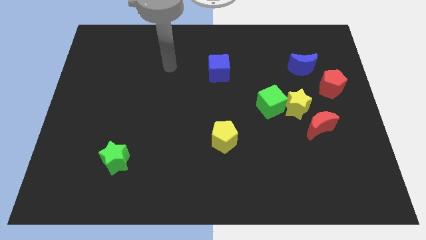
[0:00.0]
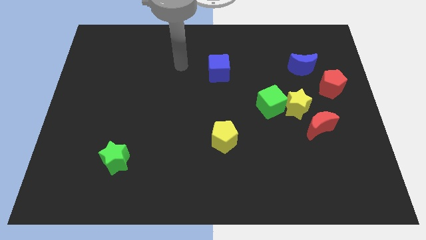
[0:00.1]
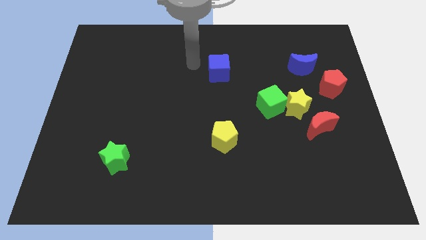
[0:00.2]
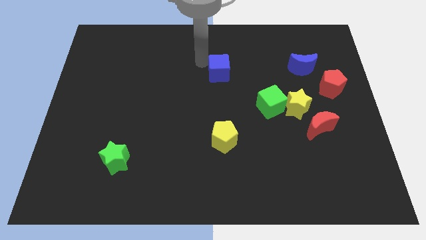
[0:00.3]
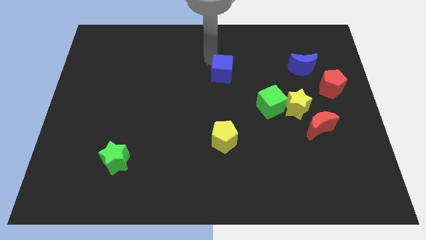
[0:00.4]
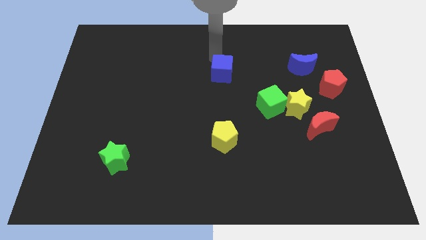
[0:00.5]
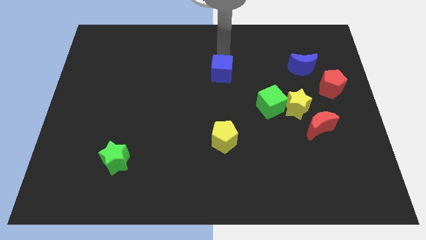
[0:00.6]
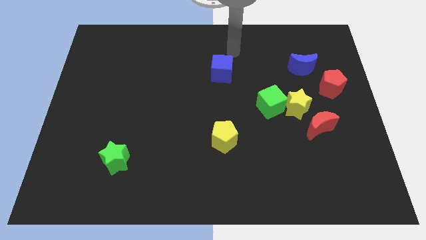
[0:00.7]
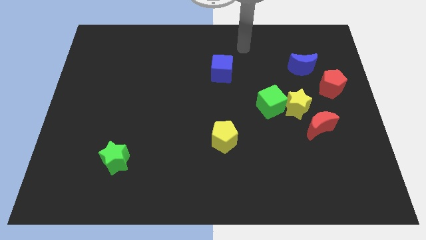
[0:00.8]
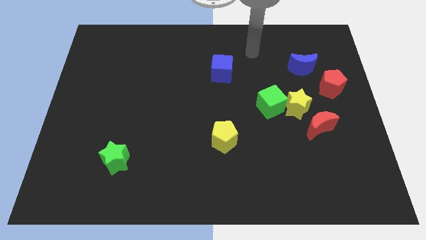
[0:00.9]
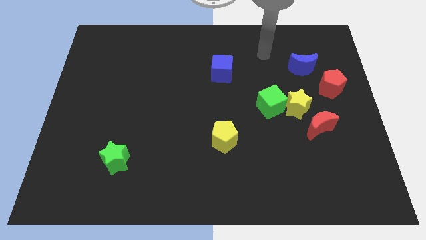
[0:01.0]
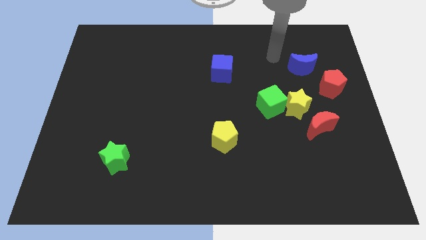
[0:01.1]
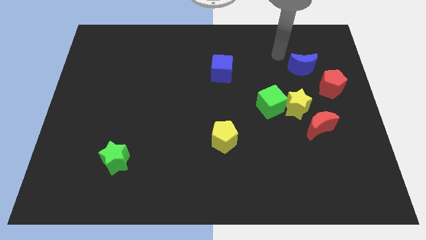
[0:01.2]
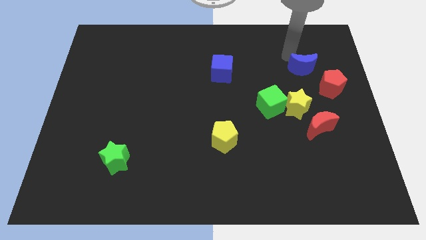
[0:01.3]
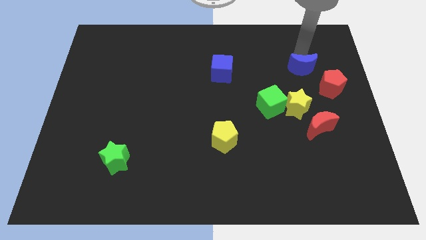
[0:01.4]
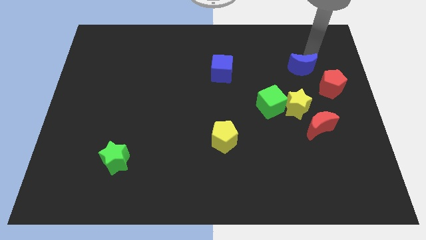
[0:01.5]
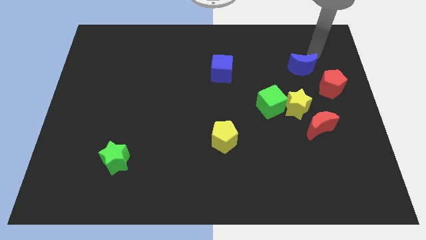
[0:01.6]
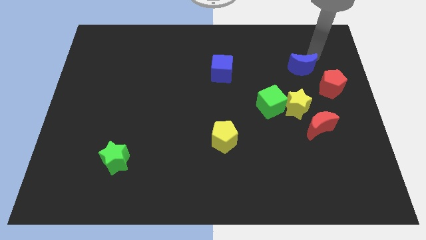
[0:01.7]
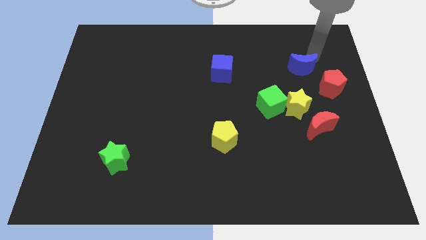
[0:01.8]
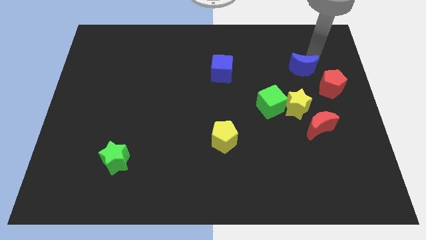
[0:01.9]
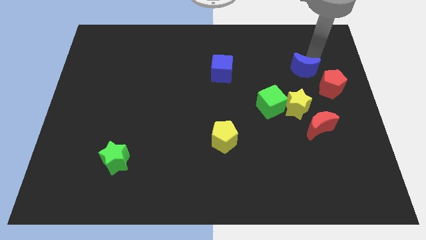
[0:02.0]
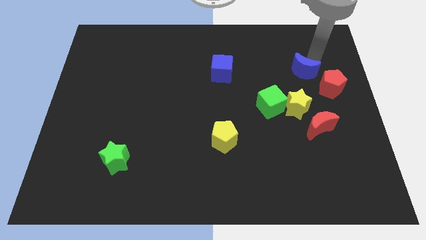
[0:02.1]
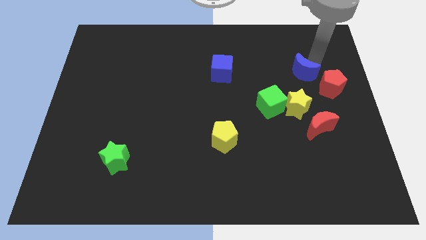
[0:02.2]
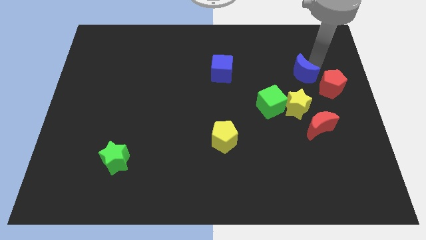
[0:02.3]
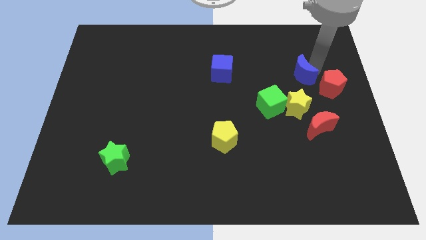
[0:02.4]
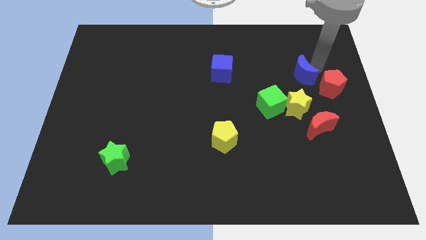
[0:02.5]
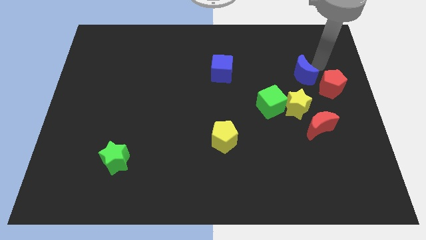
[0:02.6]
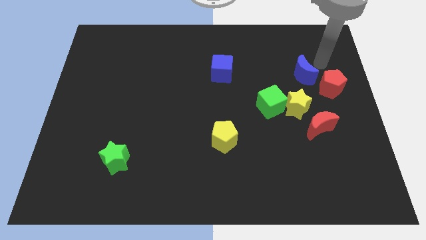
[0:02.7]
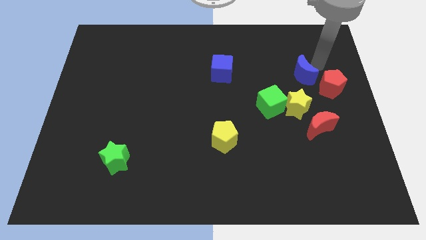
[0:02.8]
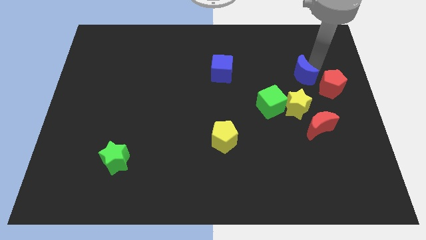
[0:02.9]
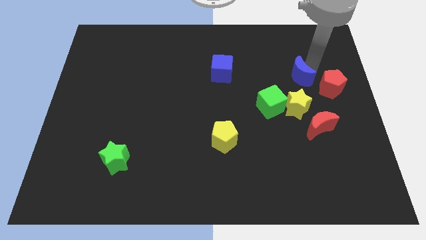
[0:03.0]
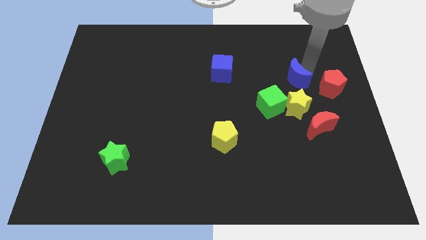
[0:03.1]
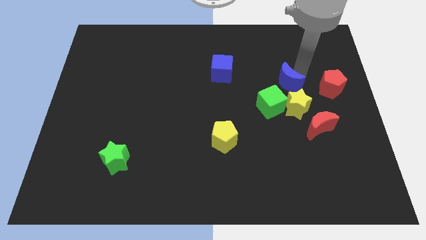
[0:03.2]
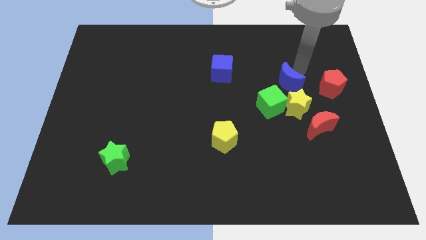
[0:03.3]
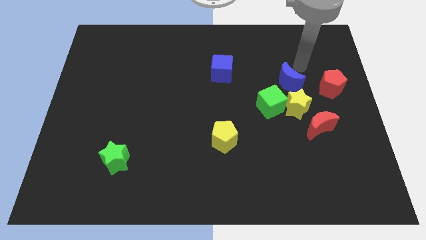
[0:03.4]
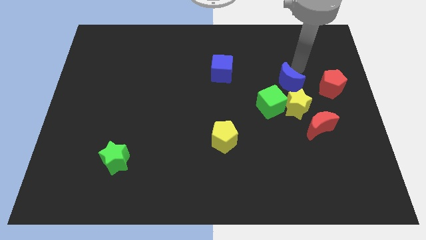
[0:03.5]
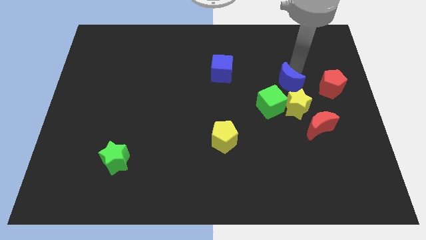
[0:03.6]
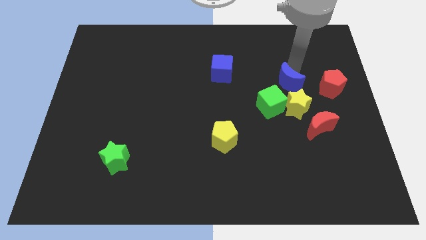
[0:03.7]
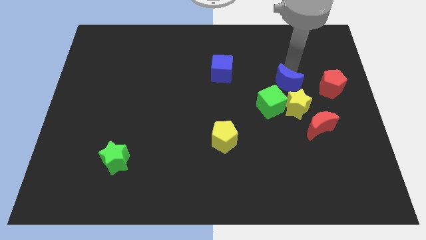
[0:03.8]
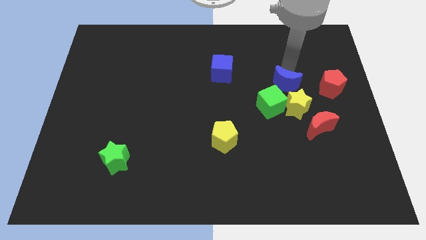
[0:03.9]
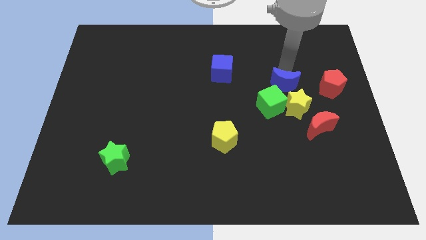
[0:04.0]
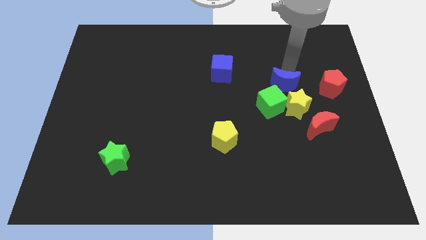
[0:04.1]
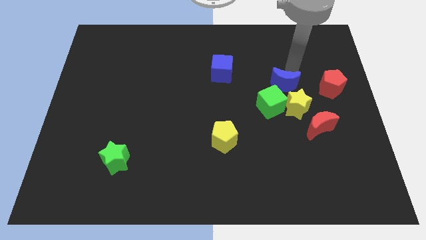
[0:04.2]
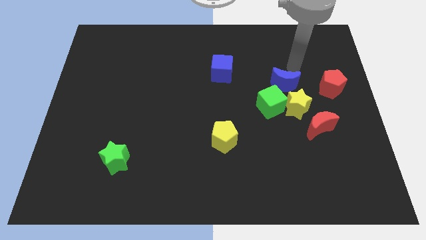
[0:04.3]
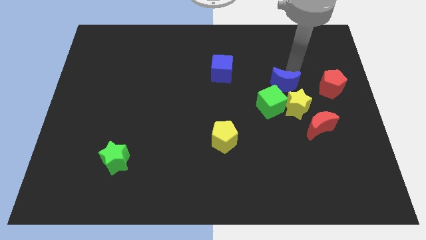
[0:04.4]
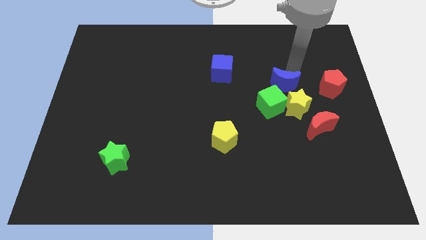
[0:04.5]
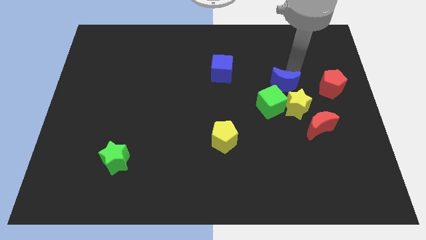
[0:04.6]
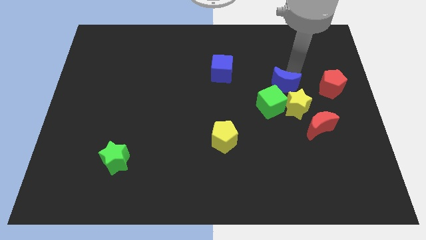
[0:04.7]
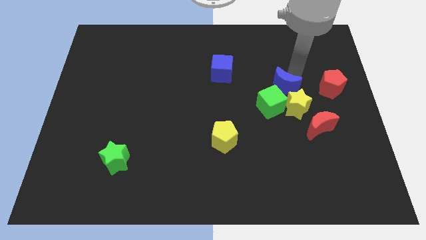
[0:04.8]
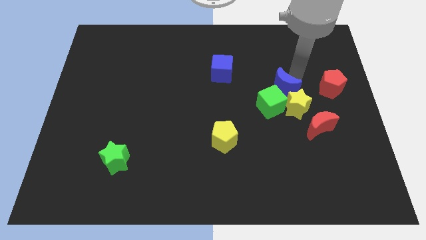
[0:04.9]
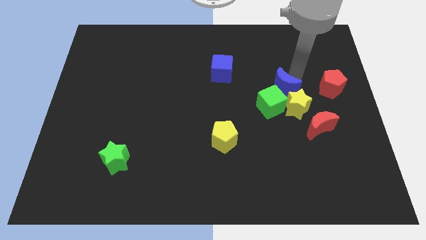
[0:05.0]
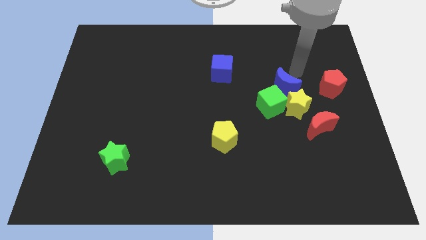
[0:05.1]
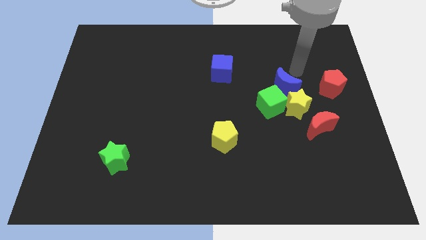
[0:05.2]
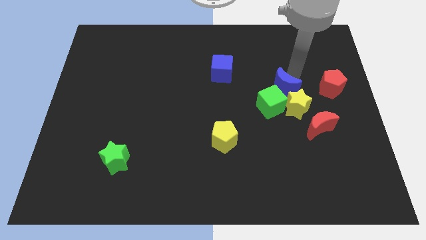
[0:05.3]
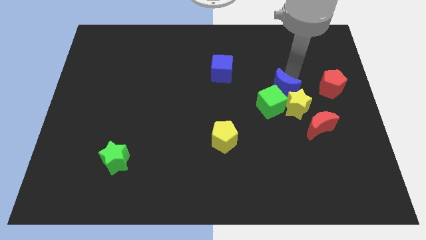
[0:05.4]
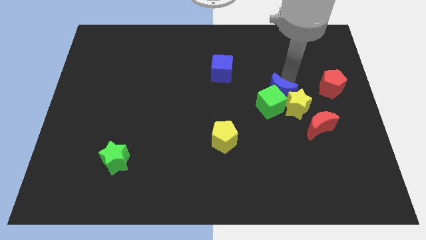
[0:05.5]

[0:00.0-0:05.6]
put the blue moon next to the green cube
